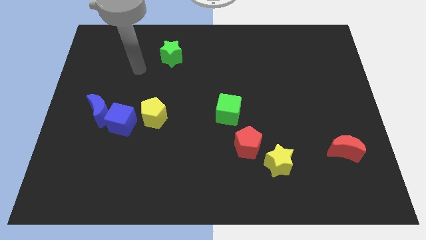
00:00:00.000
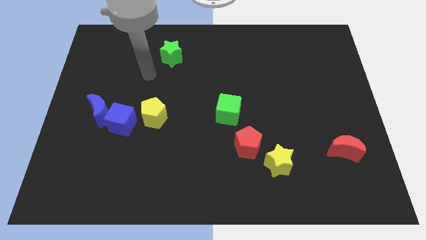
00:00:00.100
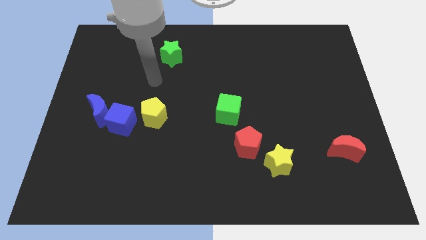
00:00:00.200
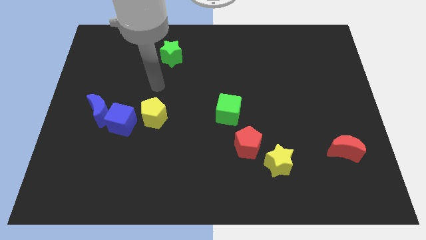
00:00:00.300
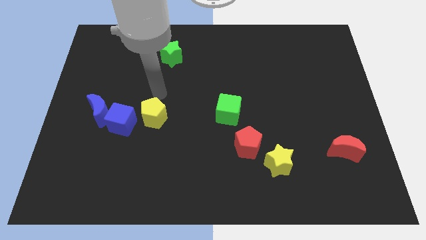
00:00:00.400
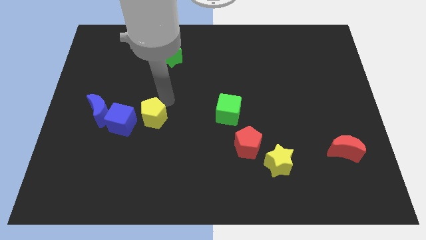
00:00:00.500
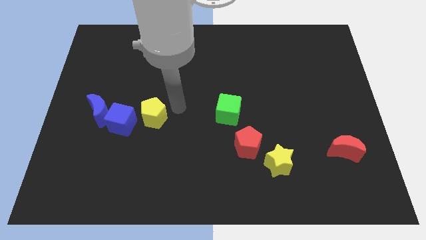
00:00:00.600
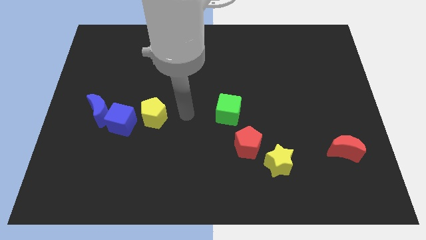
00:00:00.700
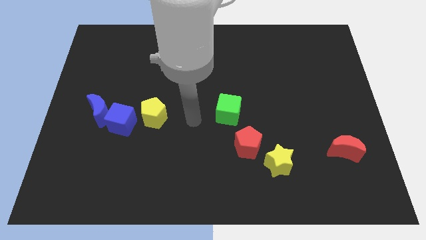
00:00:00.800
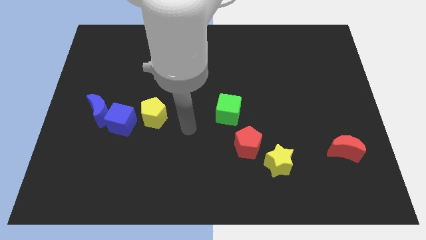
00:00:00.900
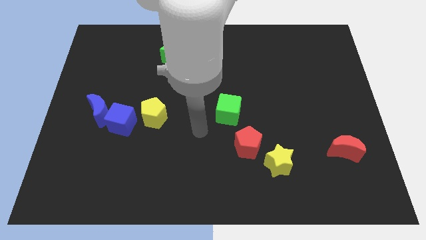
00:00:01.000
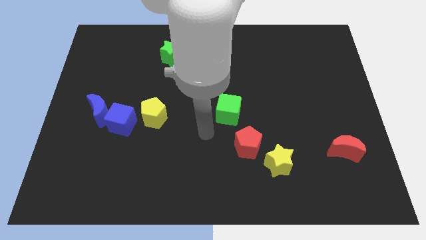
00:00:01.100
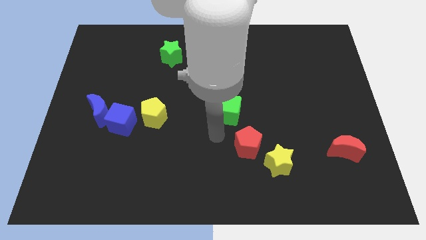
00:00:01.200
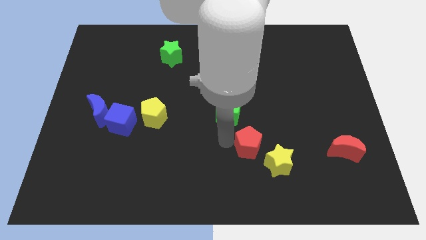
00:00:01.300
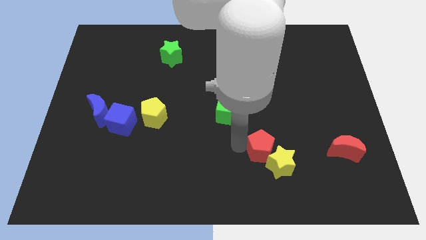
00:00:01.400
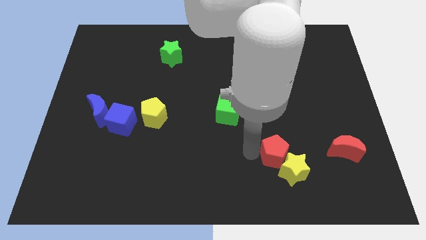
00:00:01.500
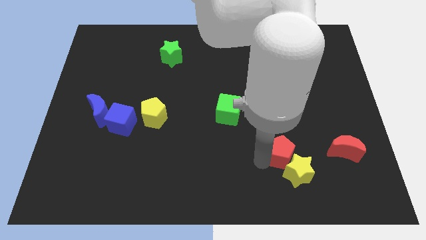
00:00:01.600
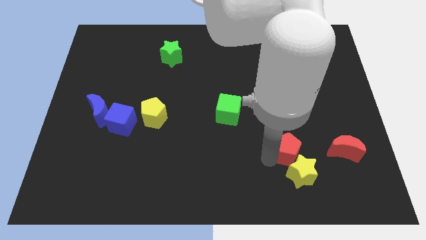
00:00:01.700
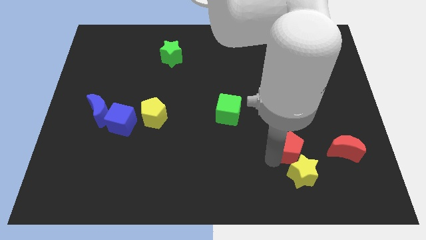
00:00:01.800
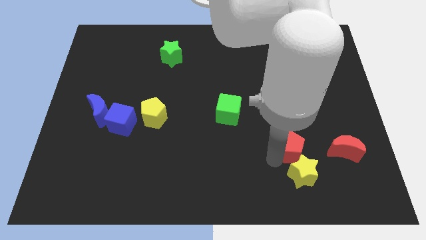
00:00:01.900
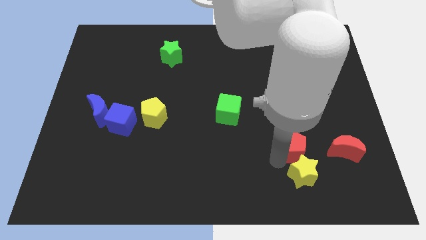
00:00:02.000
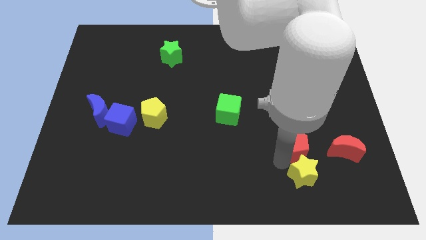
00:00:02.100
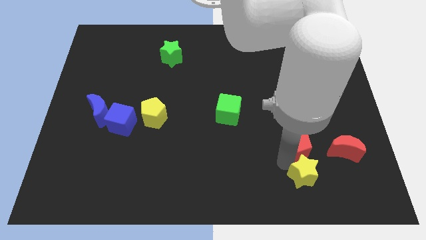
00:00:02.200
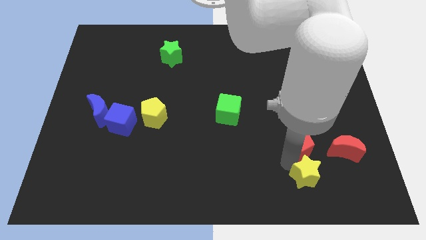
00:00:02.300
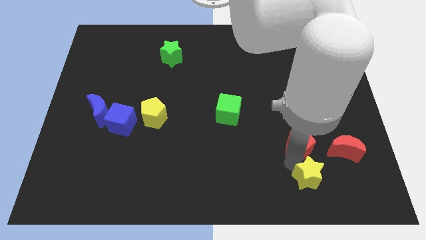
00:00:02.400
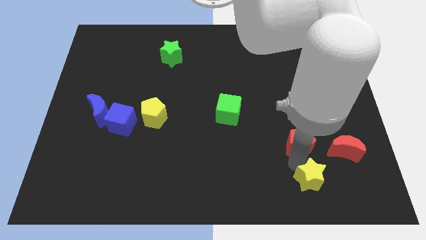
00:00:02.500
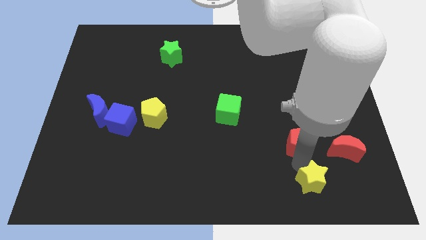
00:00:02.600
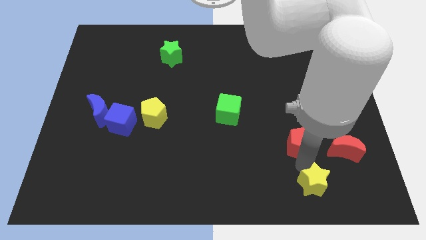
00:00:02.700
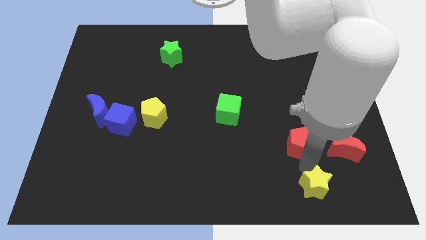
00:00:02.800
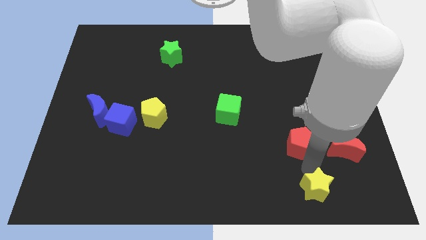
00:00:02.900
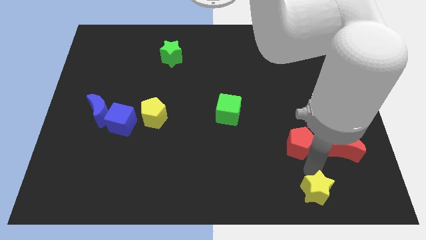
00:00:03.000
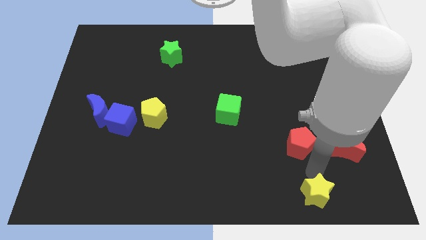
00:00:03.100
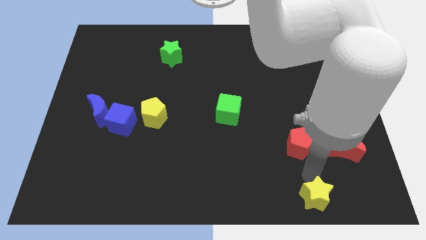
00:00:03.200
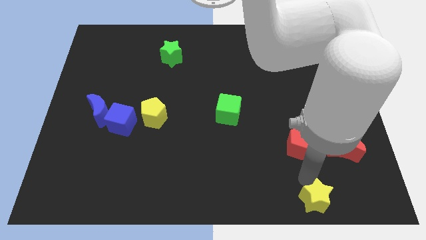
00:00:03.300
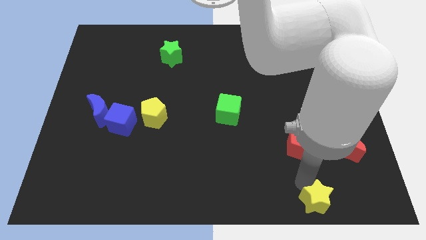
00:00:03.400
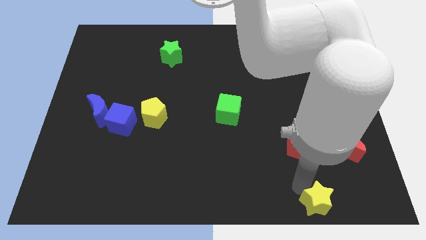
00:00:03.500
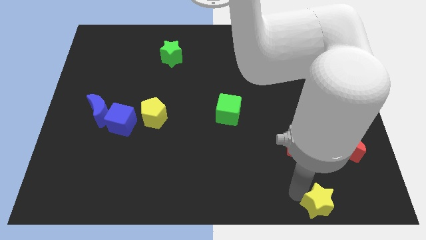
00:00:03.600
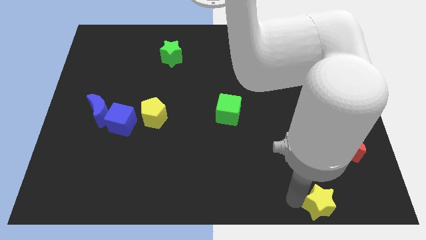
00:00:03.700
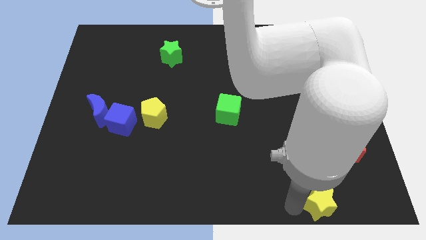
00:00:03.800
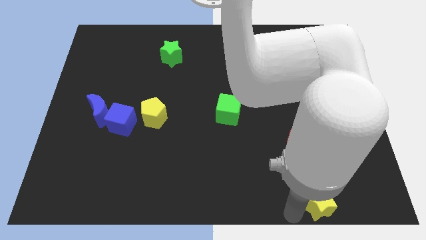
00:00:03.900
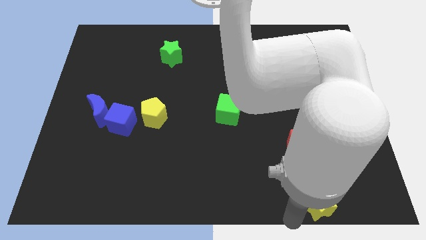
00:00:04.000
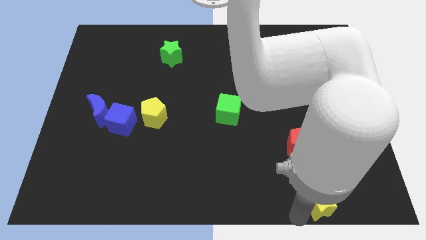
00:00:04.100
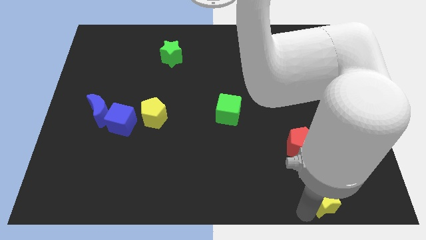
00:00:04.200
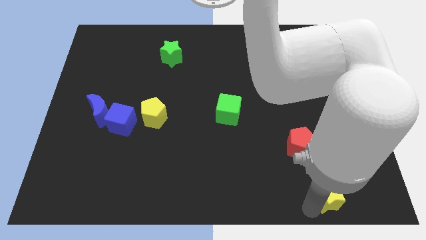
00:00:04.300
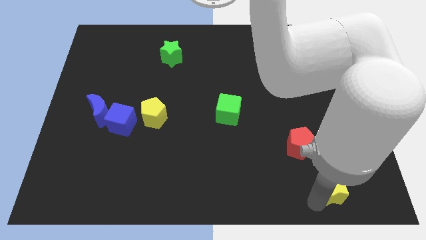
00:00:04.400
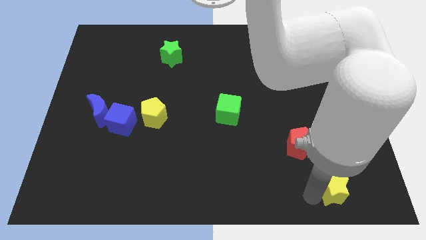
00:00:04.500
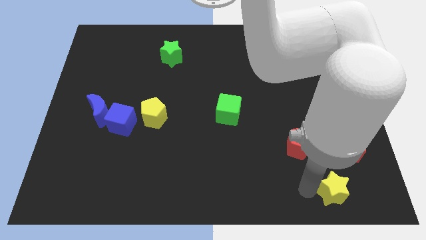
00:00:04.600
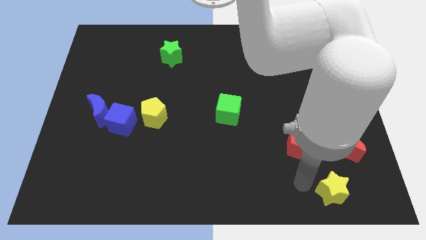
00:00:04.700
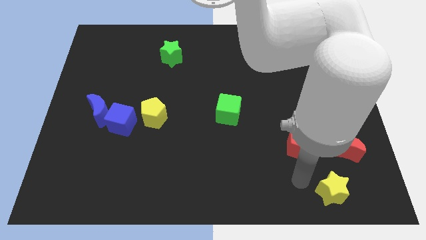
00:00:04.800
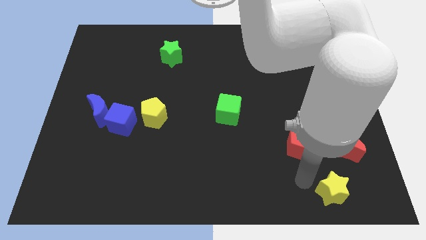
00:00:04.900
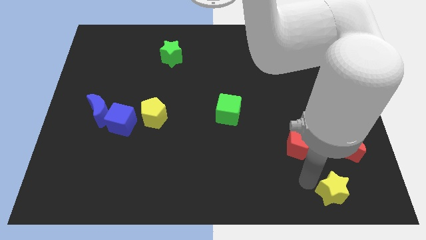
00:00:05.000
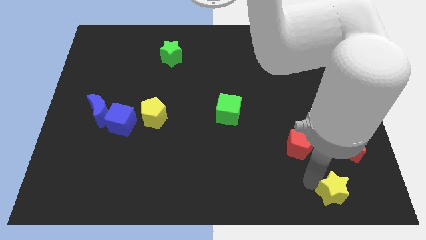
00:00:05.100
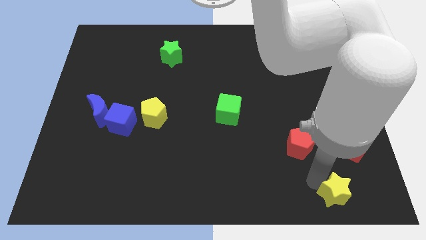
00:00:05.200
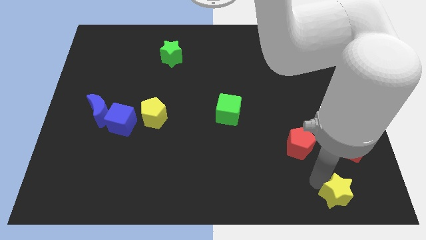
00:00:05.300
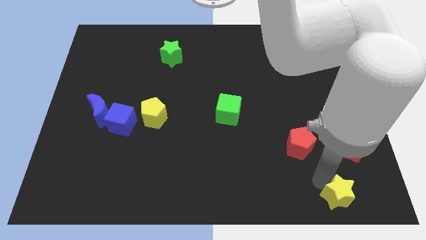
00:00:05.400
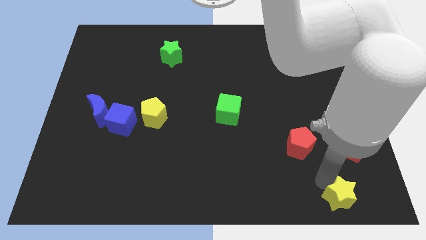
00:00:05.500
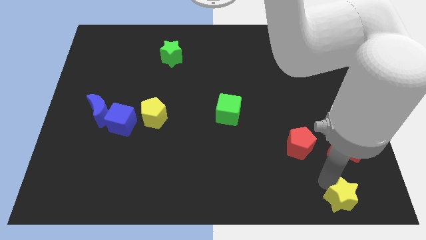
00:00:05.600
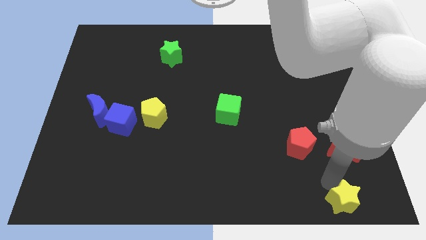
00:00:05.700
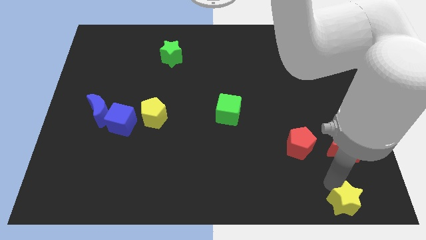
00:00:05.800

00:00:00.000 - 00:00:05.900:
slide the yellow star to the lower right corner

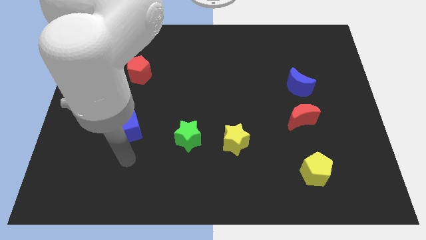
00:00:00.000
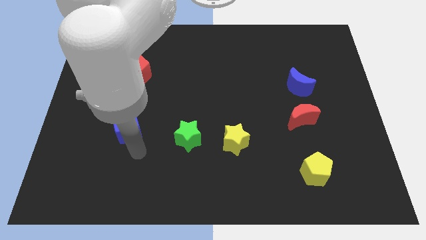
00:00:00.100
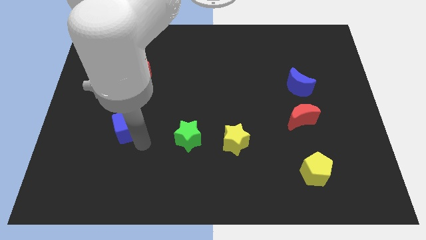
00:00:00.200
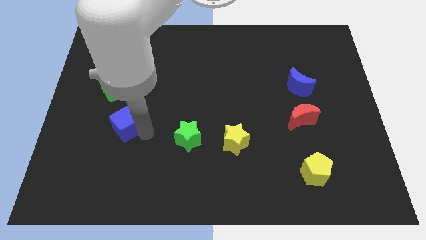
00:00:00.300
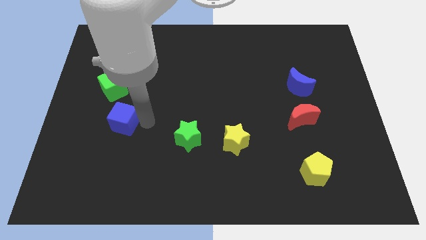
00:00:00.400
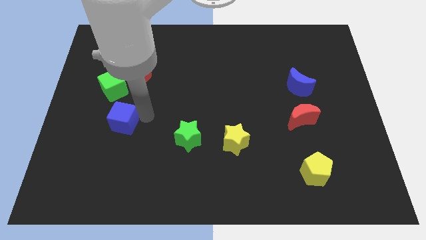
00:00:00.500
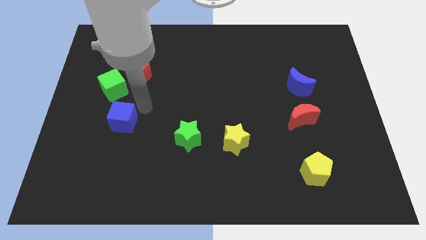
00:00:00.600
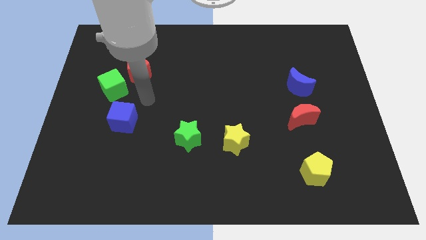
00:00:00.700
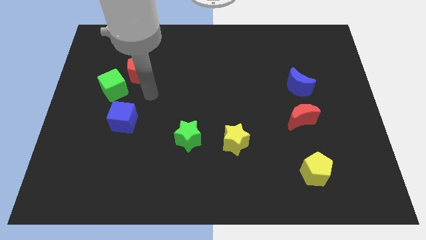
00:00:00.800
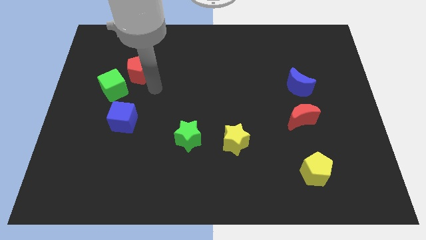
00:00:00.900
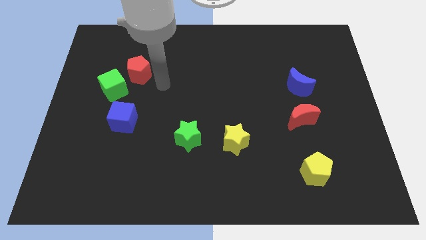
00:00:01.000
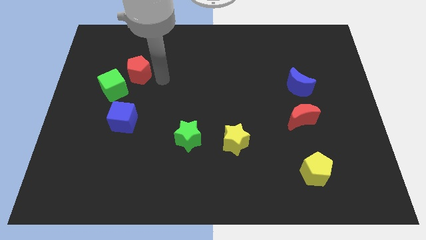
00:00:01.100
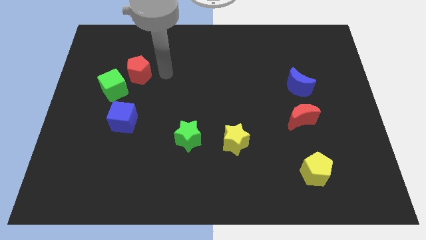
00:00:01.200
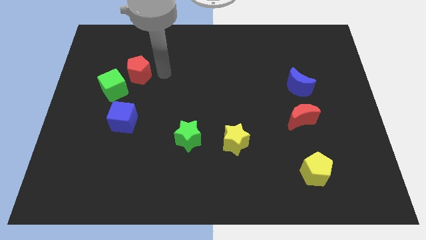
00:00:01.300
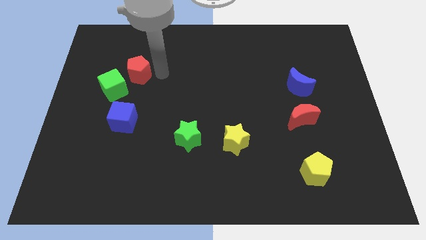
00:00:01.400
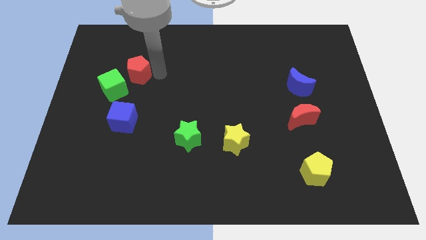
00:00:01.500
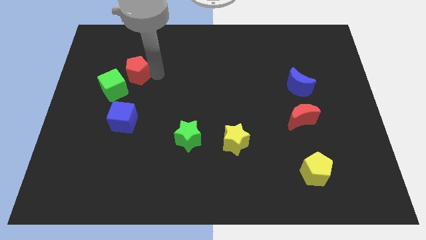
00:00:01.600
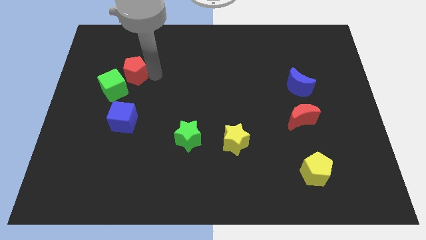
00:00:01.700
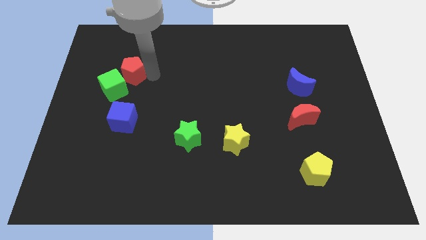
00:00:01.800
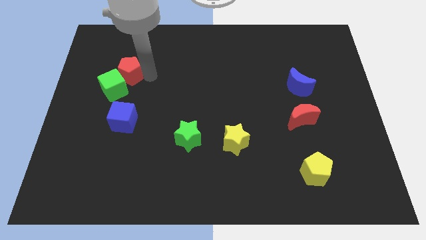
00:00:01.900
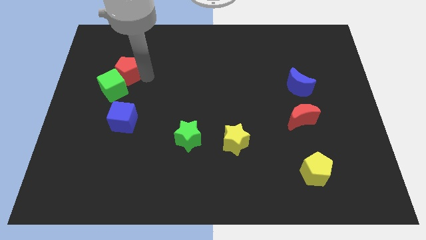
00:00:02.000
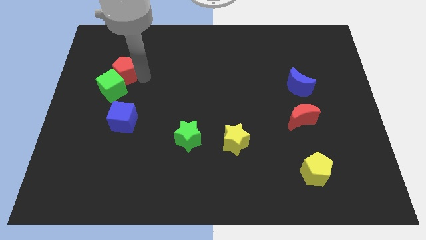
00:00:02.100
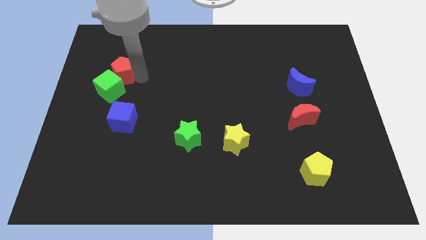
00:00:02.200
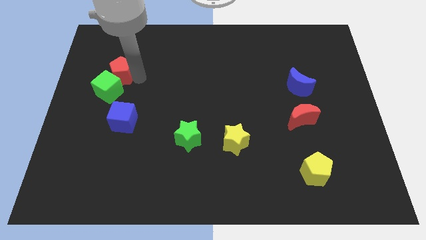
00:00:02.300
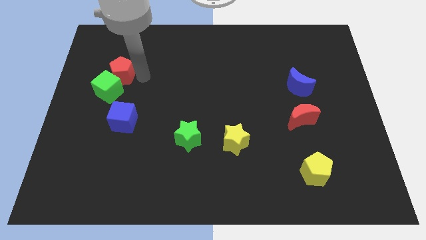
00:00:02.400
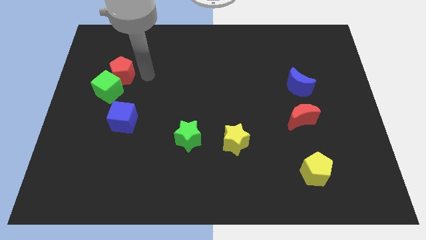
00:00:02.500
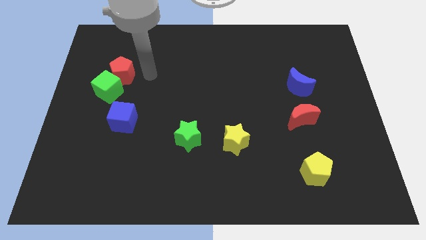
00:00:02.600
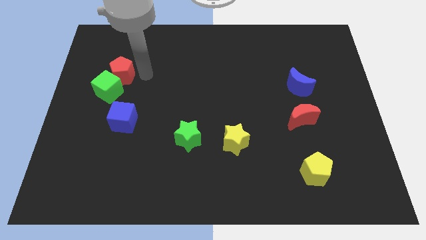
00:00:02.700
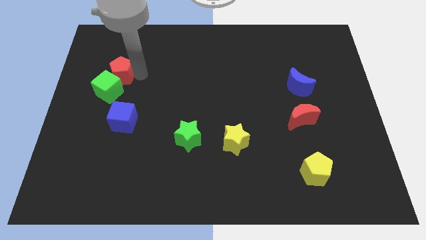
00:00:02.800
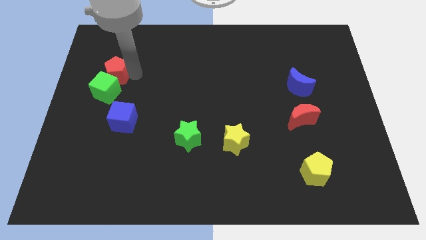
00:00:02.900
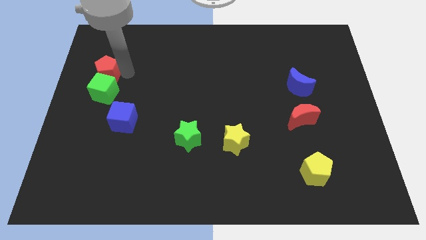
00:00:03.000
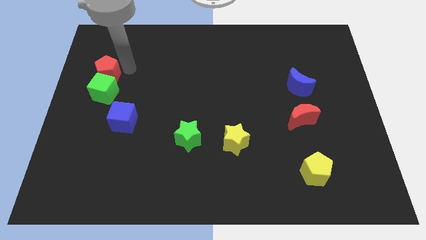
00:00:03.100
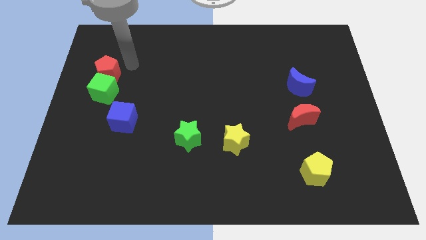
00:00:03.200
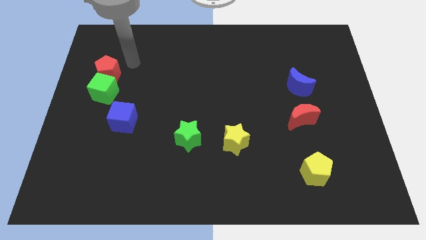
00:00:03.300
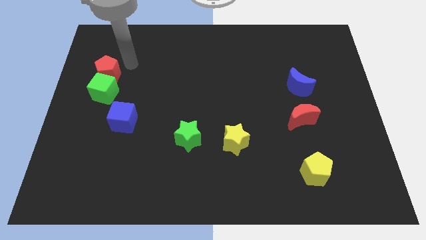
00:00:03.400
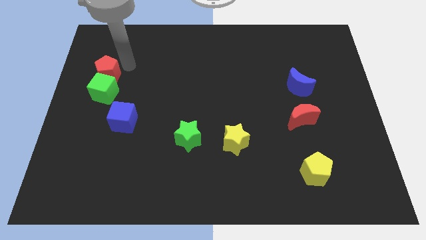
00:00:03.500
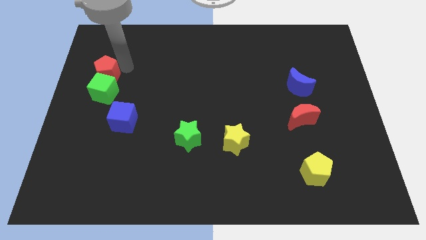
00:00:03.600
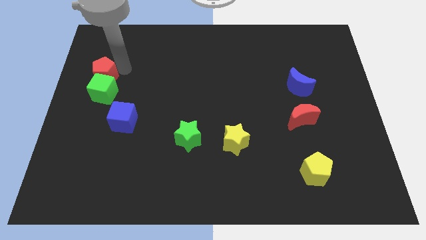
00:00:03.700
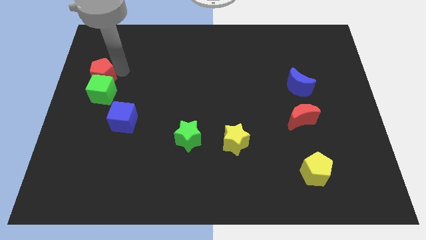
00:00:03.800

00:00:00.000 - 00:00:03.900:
move the red pentagon to the left side of the board
